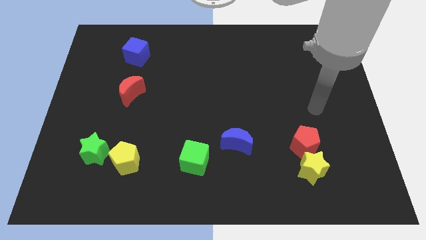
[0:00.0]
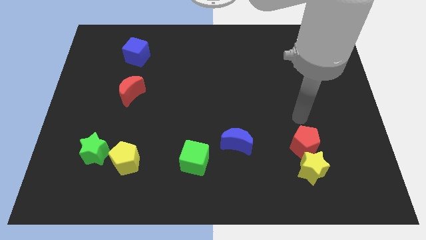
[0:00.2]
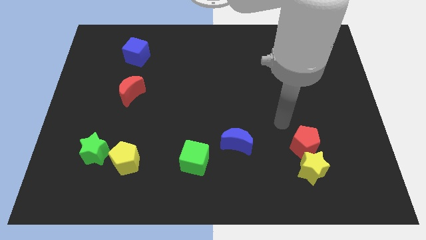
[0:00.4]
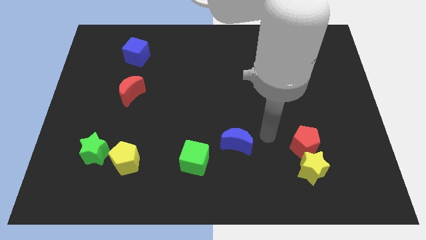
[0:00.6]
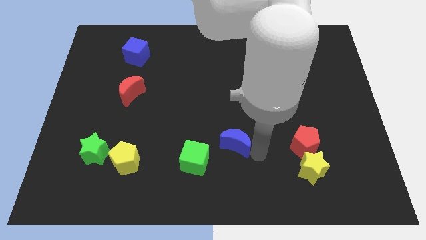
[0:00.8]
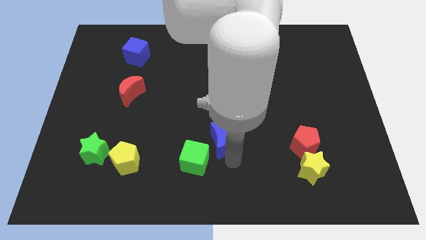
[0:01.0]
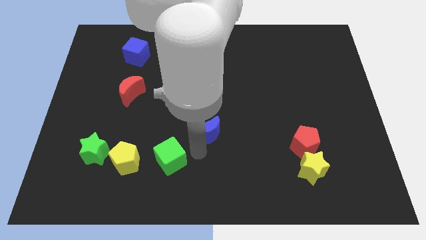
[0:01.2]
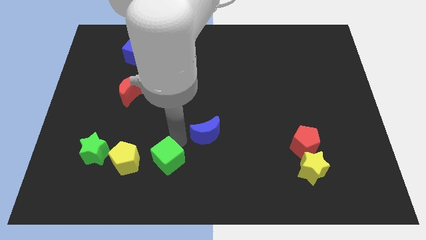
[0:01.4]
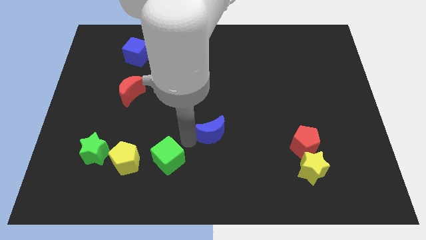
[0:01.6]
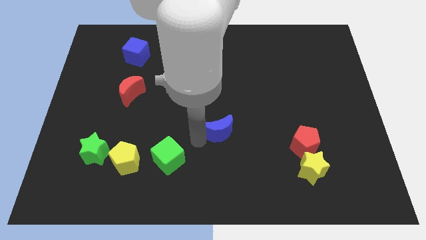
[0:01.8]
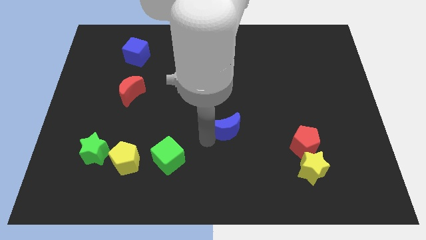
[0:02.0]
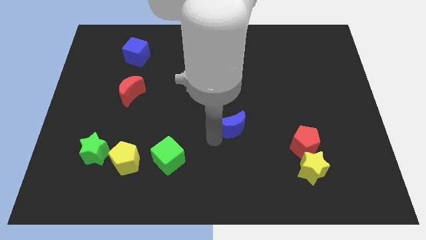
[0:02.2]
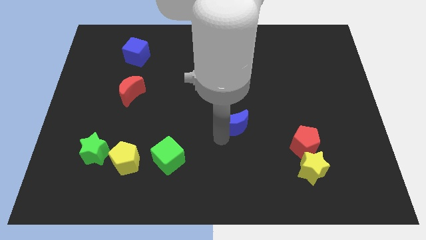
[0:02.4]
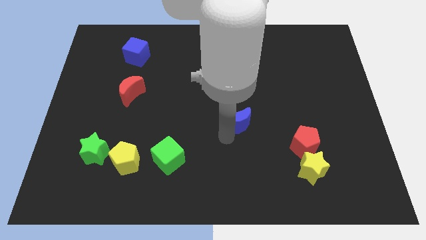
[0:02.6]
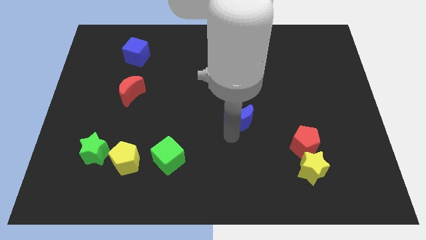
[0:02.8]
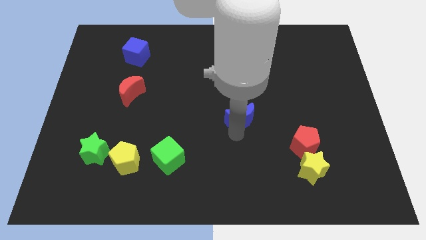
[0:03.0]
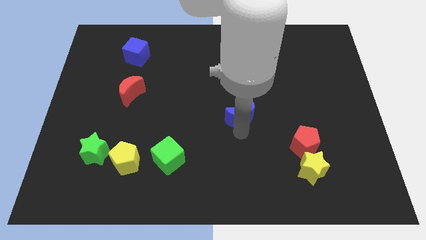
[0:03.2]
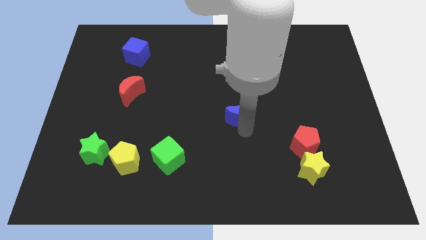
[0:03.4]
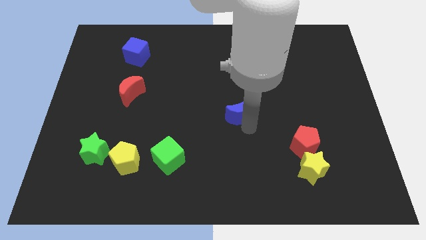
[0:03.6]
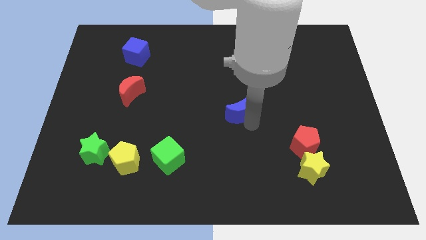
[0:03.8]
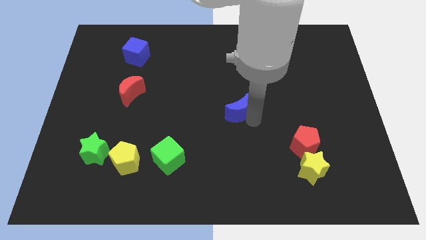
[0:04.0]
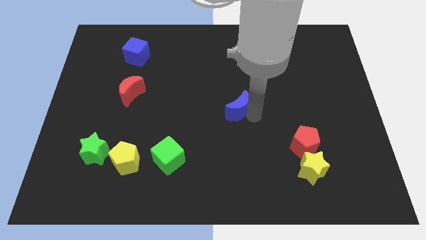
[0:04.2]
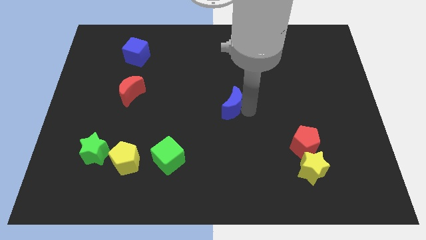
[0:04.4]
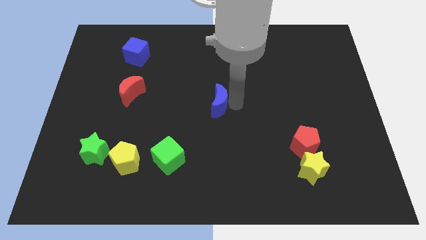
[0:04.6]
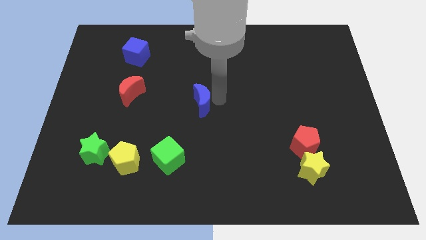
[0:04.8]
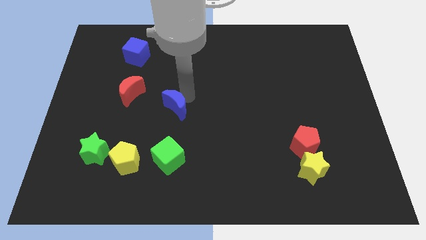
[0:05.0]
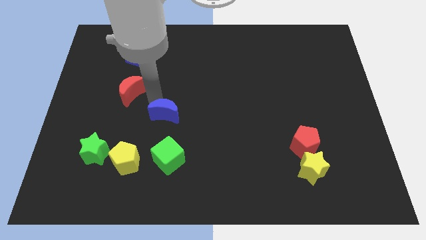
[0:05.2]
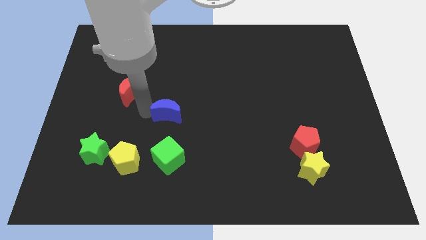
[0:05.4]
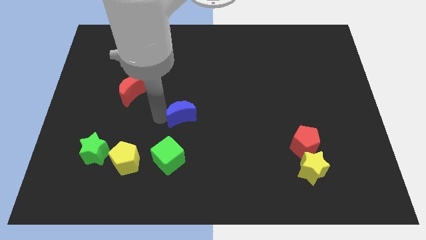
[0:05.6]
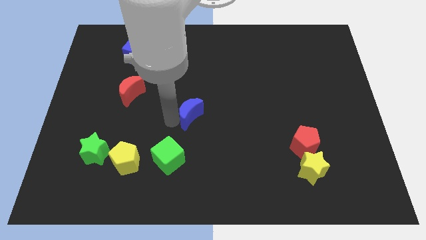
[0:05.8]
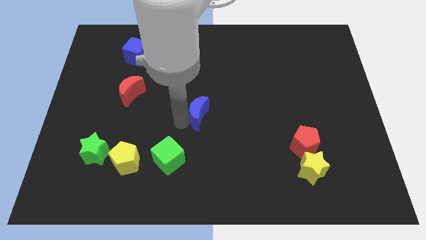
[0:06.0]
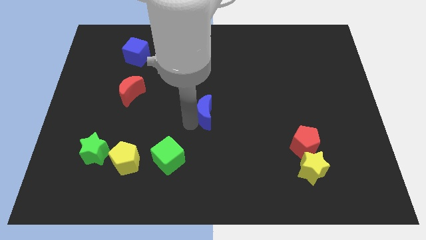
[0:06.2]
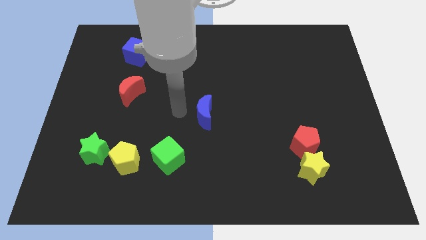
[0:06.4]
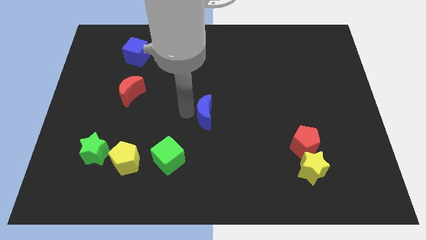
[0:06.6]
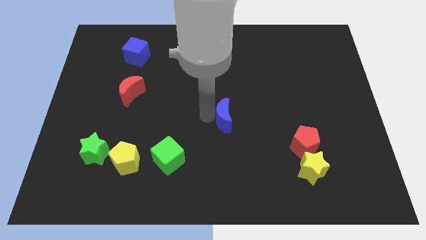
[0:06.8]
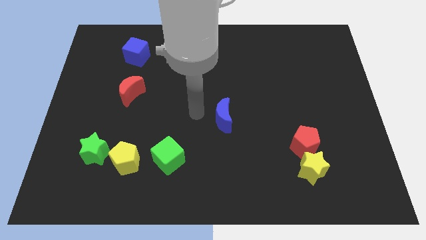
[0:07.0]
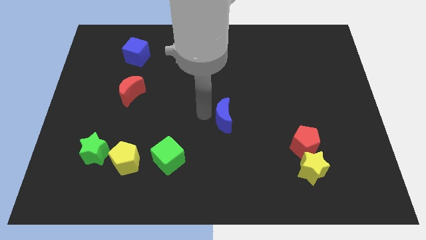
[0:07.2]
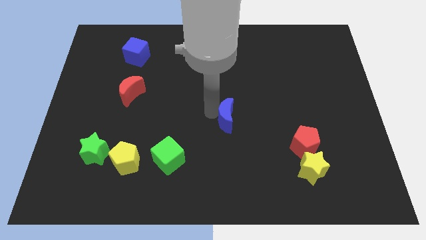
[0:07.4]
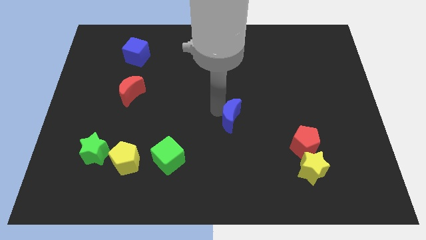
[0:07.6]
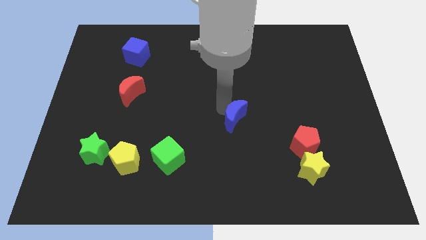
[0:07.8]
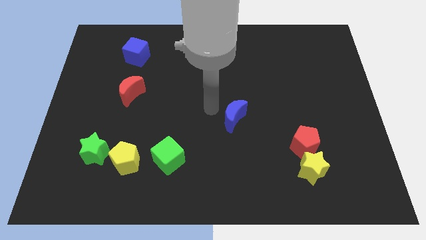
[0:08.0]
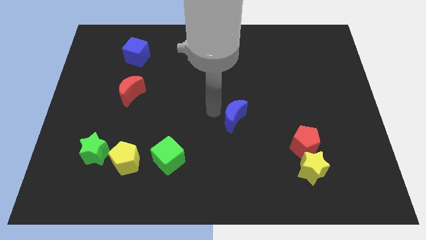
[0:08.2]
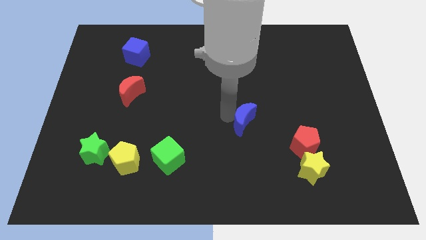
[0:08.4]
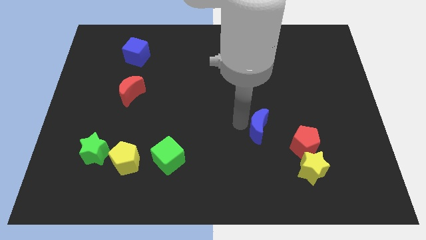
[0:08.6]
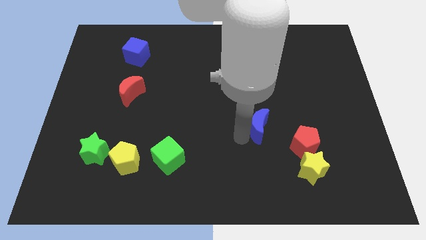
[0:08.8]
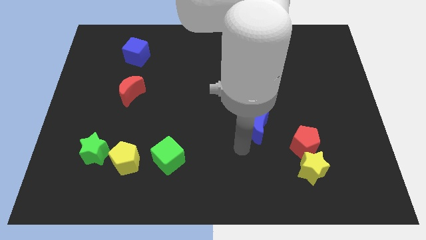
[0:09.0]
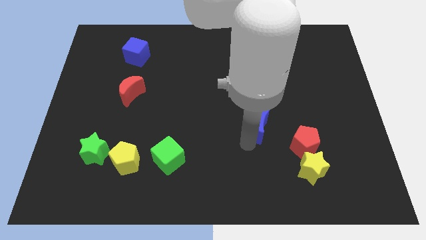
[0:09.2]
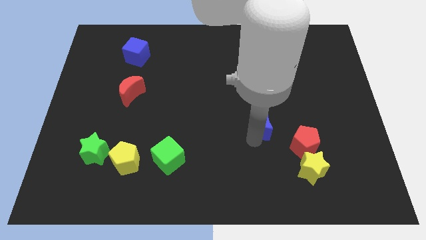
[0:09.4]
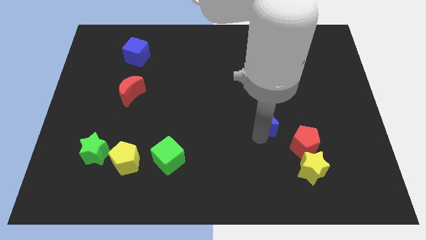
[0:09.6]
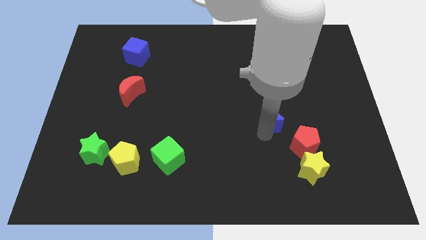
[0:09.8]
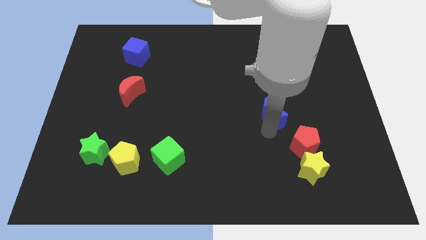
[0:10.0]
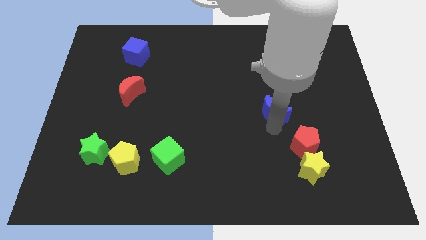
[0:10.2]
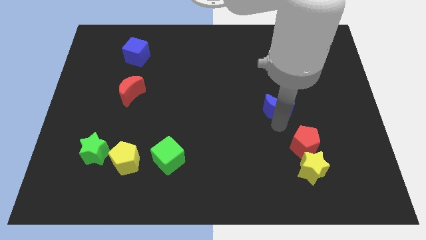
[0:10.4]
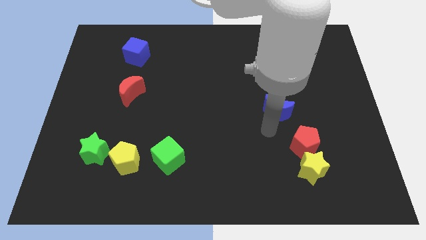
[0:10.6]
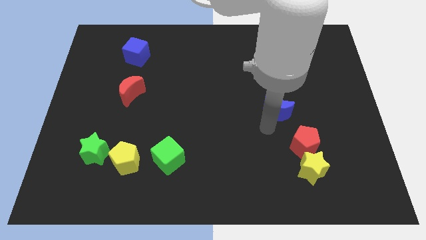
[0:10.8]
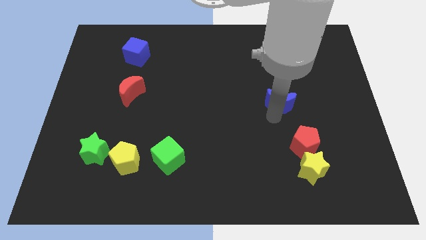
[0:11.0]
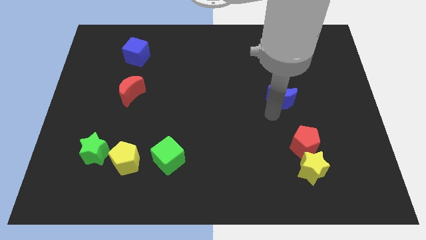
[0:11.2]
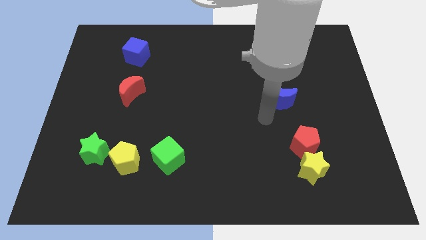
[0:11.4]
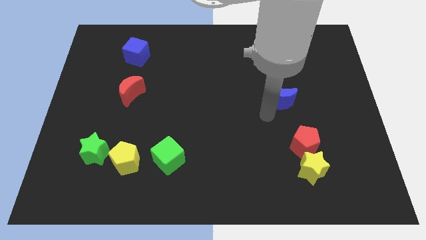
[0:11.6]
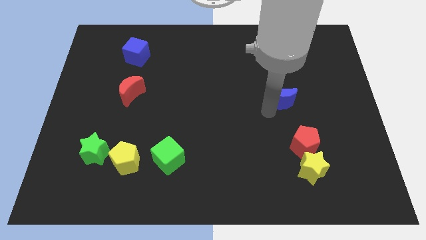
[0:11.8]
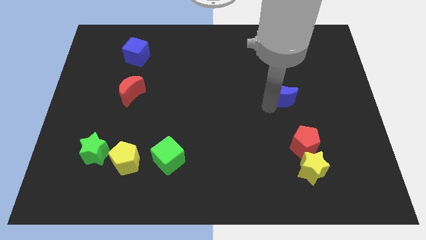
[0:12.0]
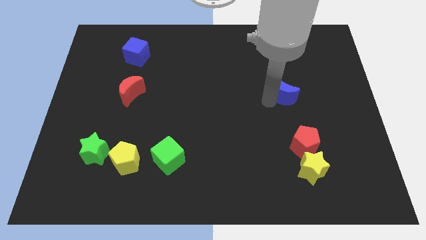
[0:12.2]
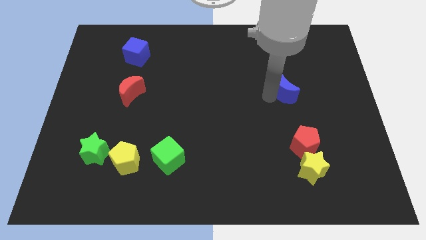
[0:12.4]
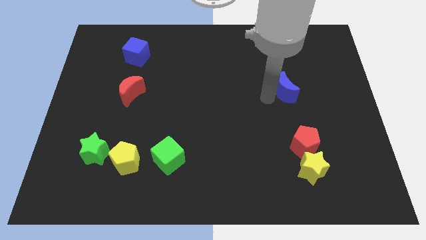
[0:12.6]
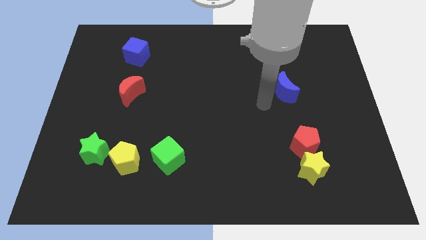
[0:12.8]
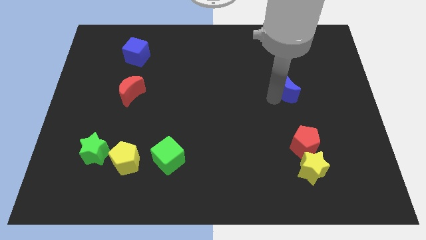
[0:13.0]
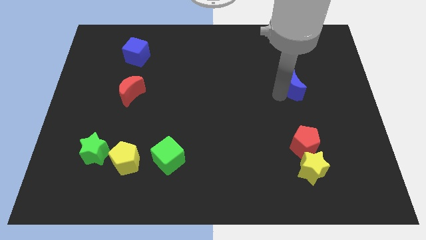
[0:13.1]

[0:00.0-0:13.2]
push the blue moon upwards and right

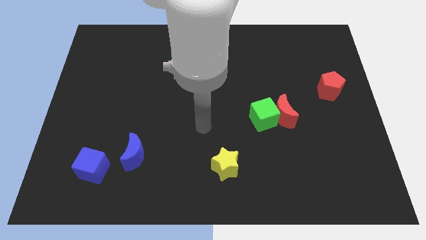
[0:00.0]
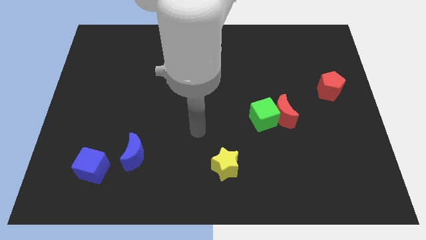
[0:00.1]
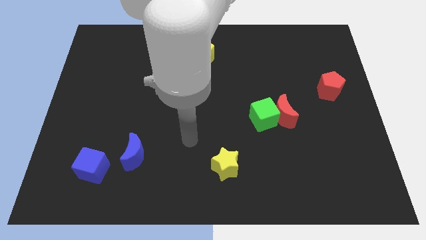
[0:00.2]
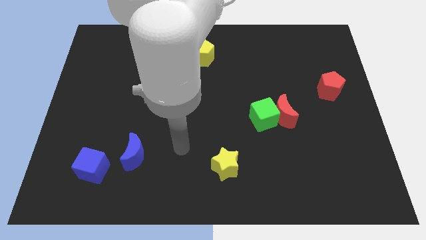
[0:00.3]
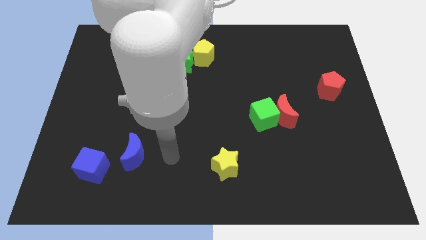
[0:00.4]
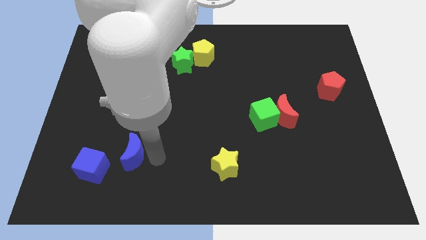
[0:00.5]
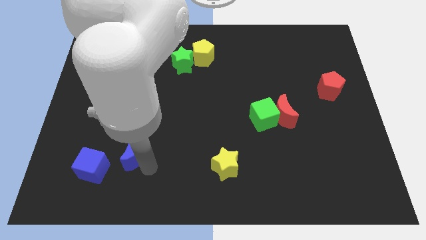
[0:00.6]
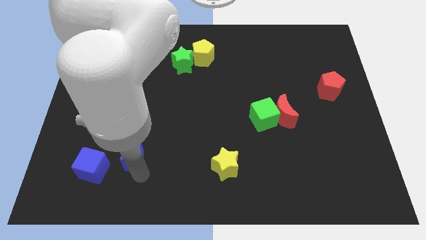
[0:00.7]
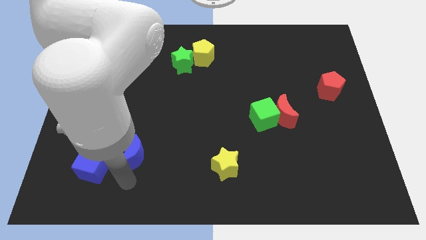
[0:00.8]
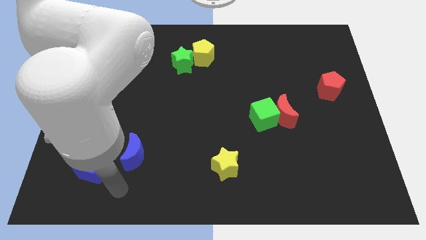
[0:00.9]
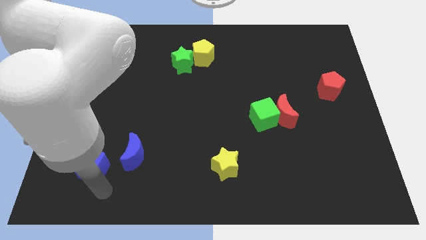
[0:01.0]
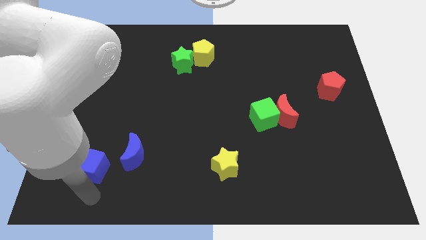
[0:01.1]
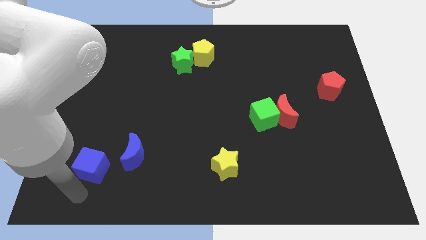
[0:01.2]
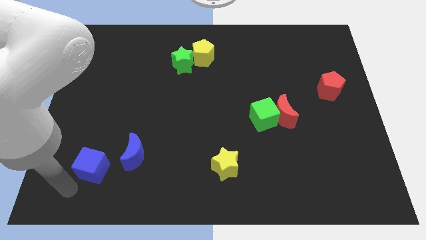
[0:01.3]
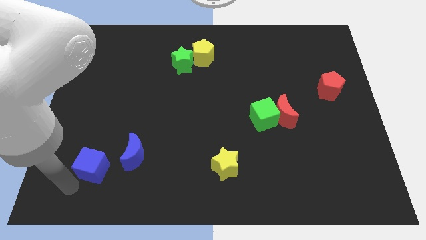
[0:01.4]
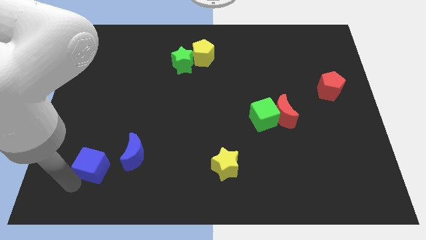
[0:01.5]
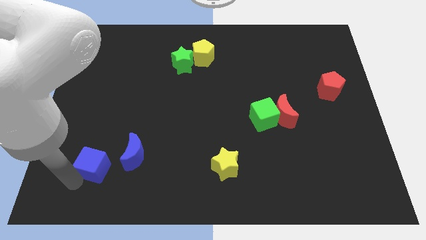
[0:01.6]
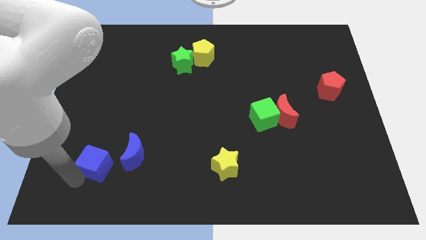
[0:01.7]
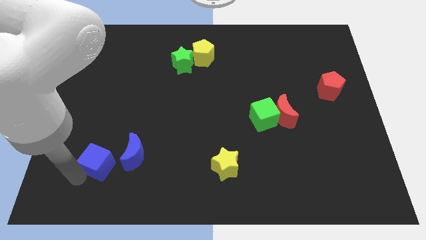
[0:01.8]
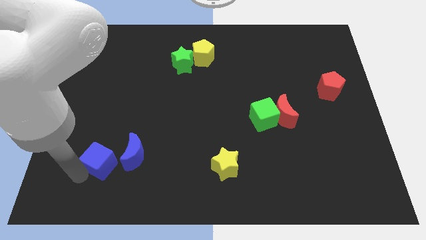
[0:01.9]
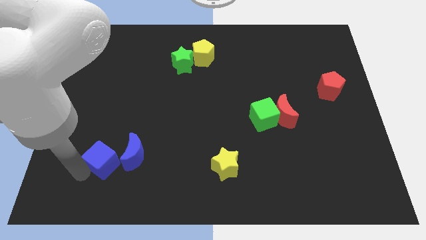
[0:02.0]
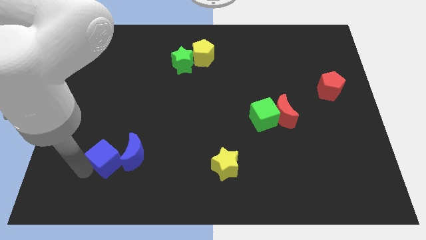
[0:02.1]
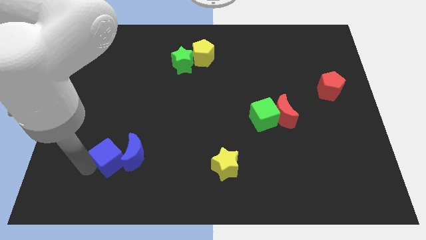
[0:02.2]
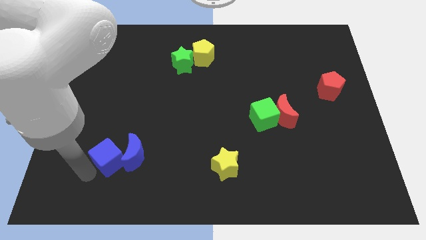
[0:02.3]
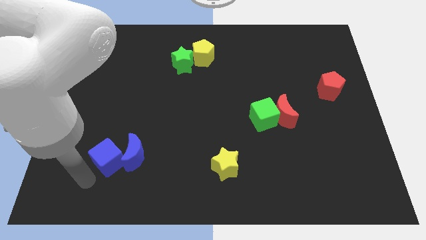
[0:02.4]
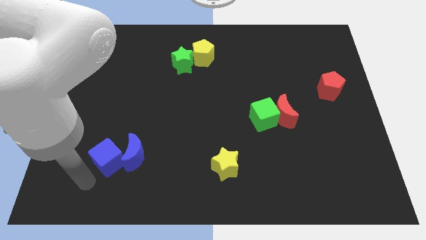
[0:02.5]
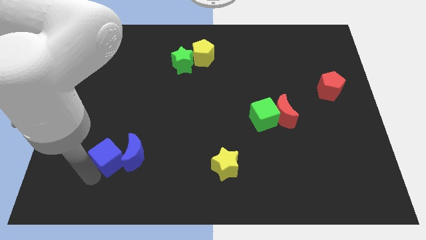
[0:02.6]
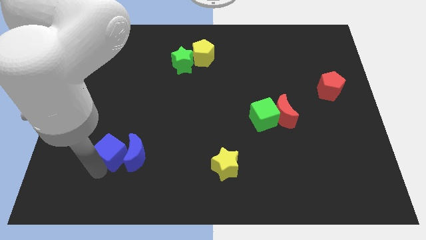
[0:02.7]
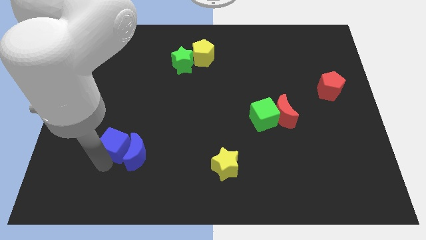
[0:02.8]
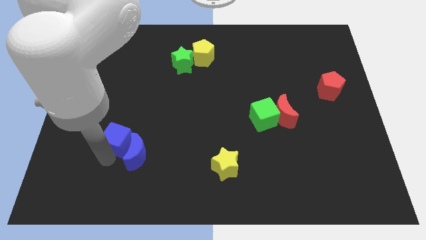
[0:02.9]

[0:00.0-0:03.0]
move the blue cube upwards and to the right diagonally a bit
